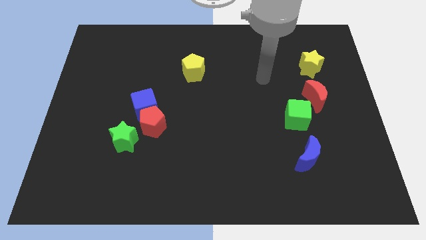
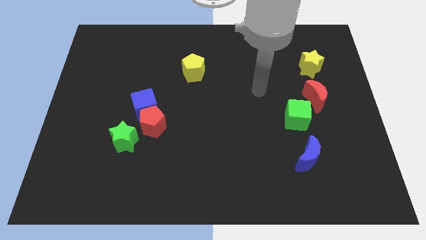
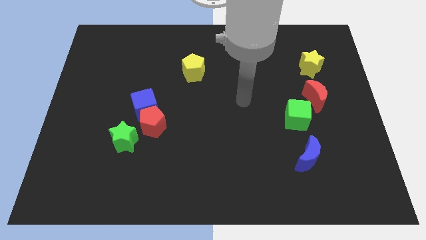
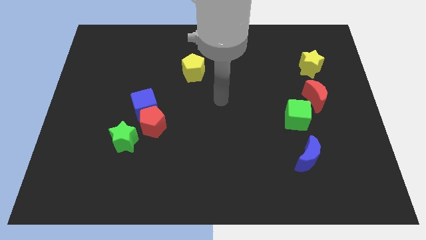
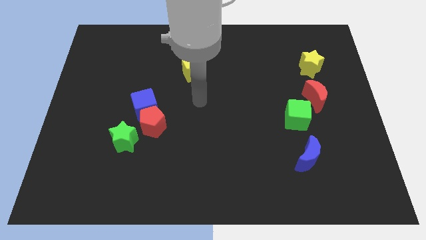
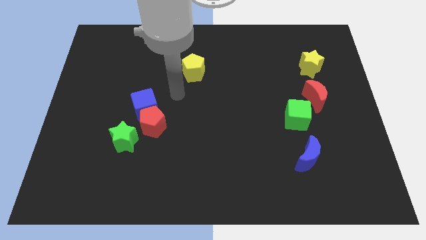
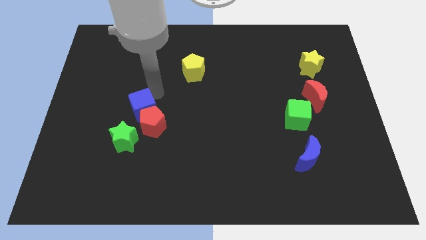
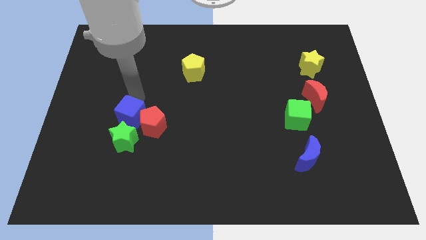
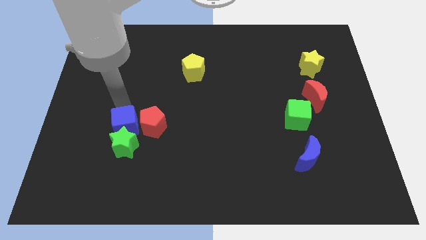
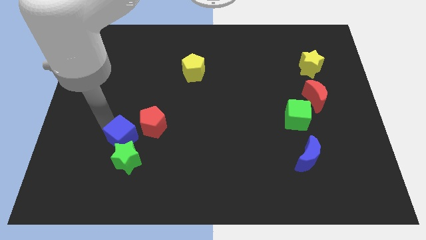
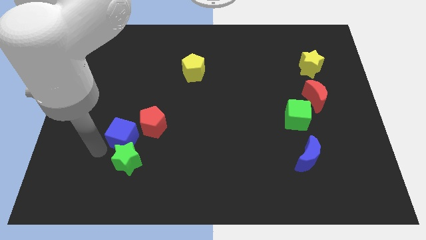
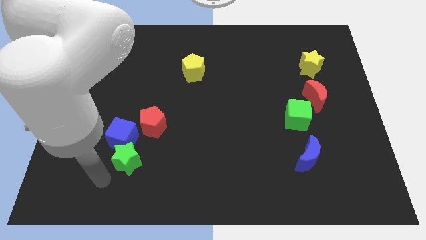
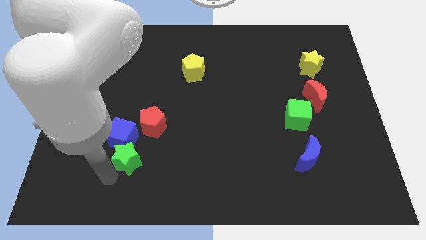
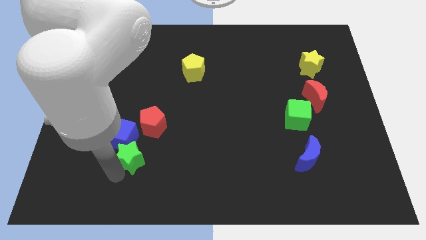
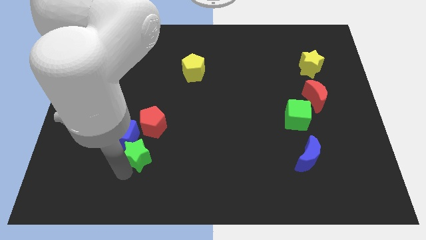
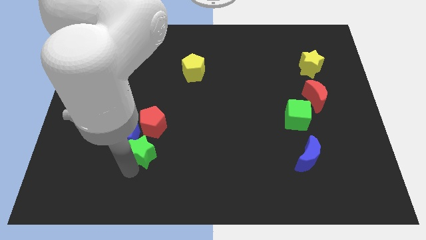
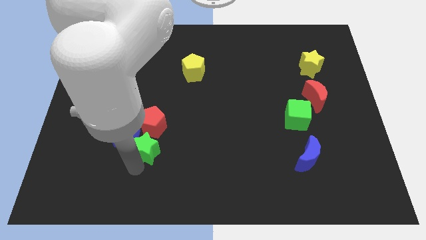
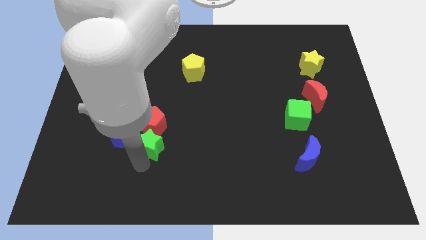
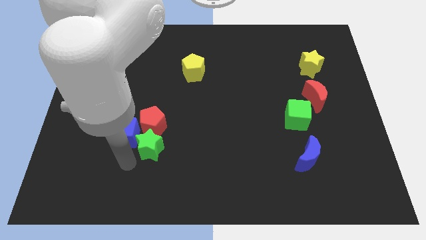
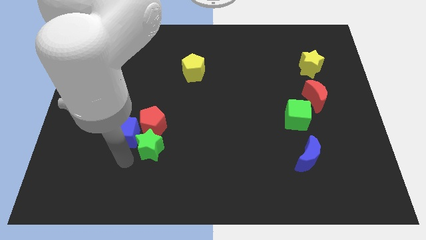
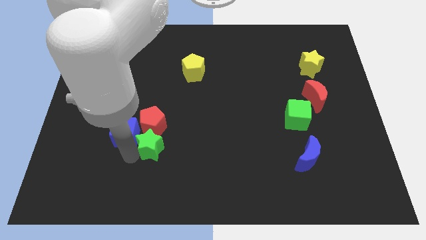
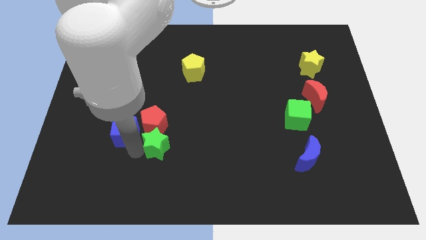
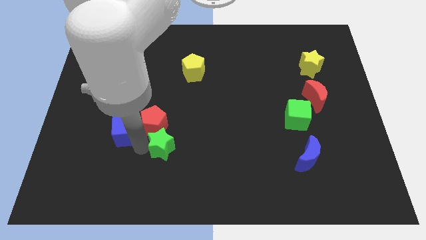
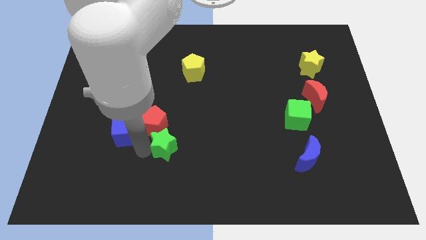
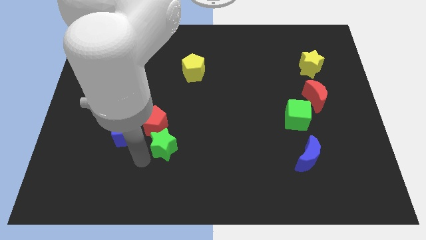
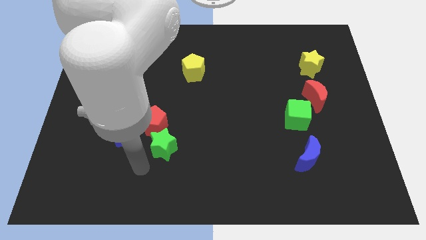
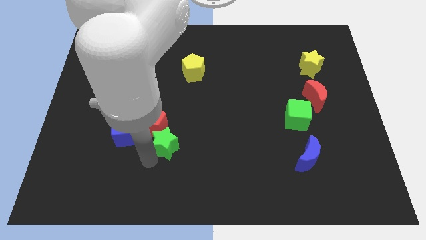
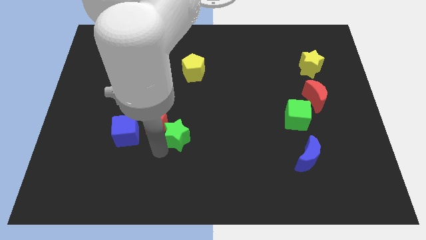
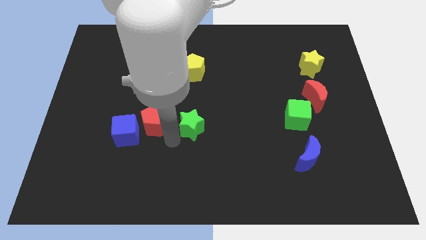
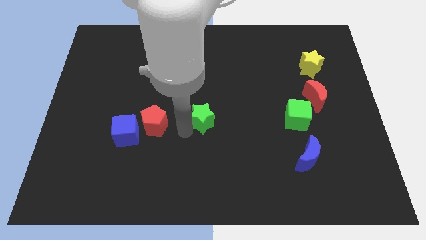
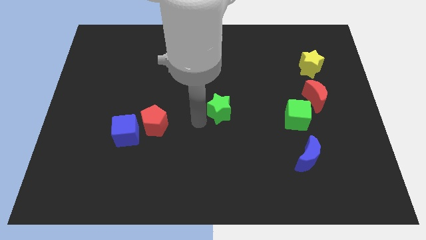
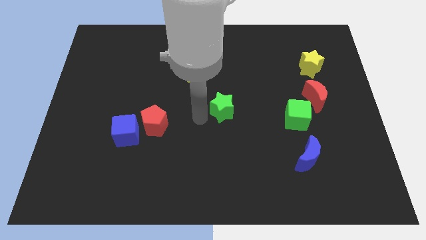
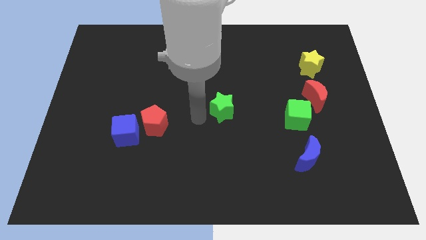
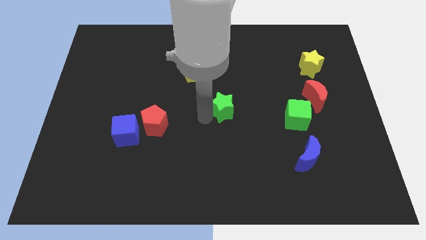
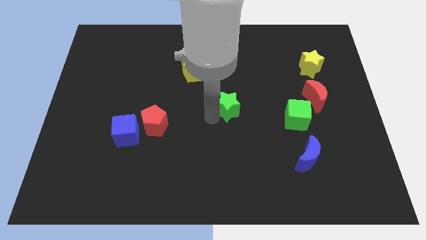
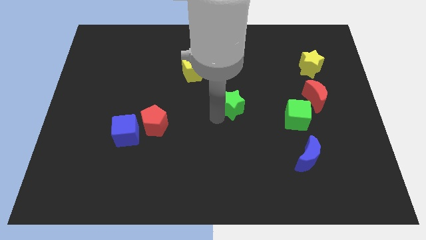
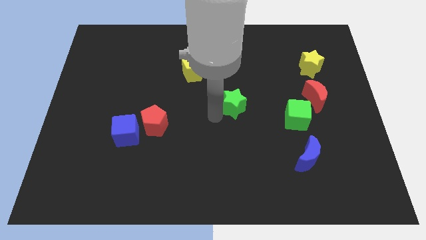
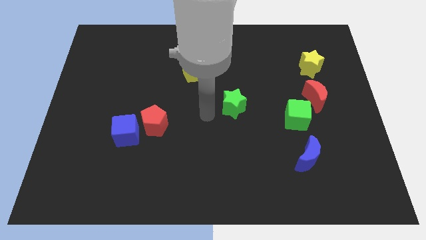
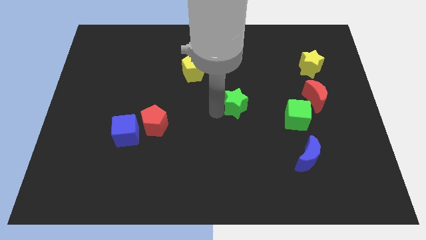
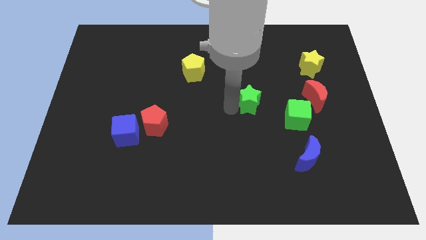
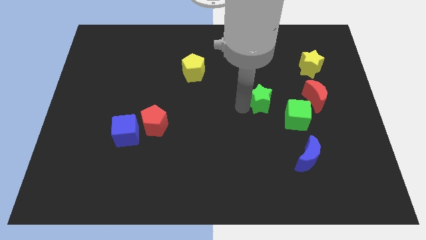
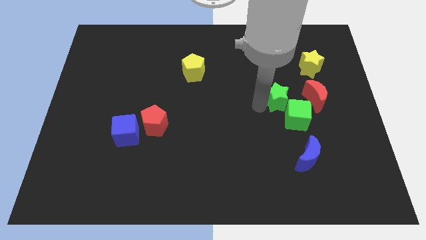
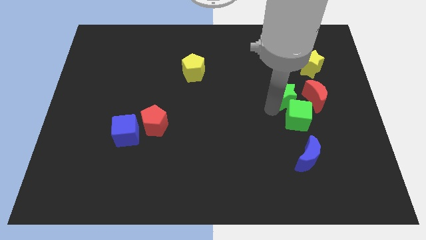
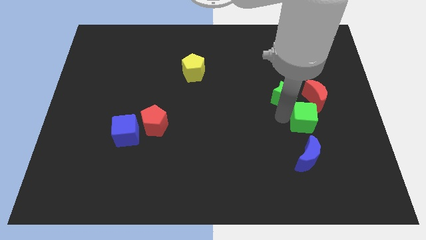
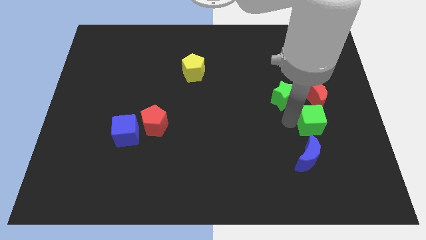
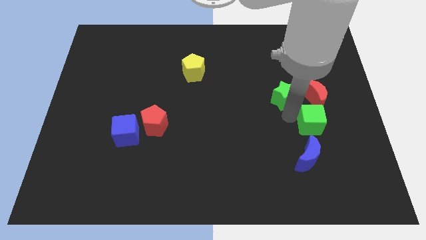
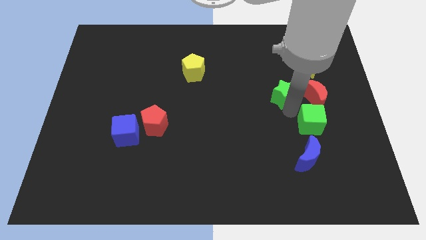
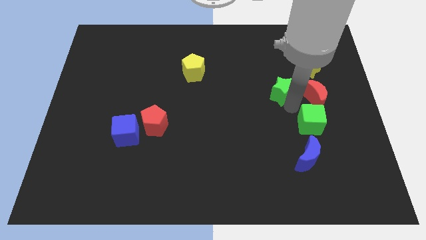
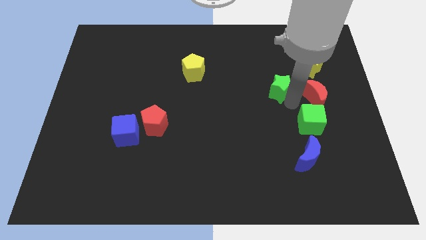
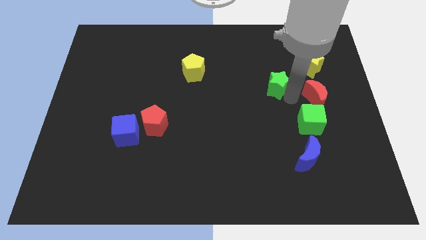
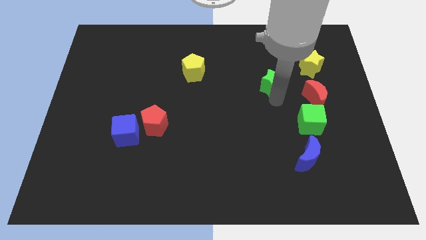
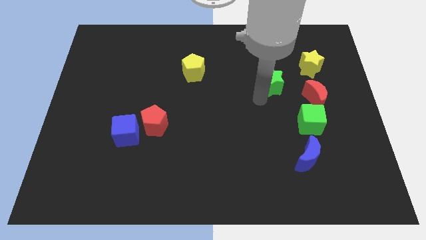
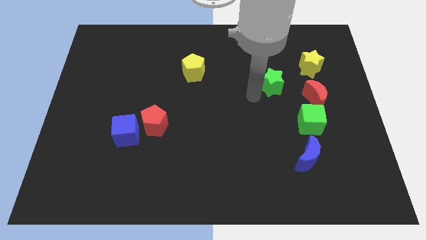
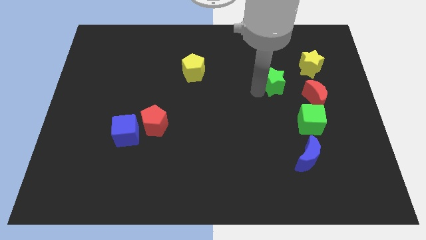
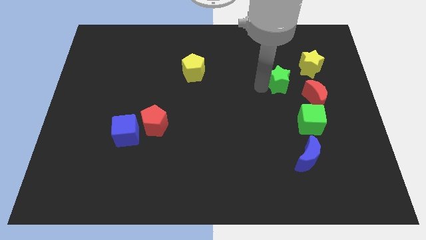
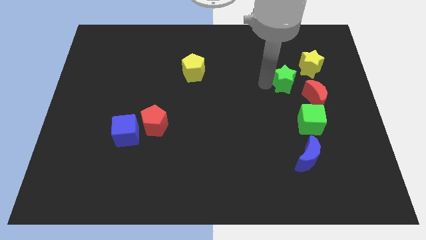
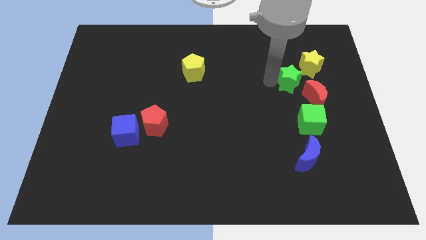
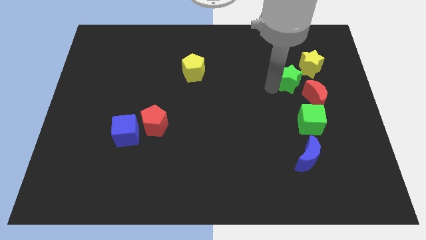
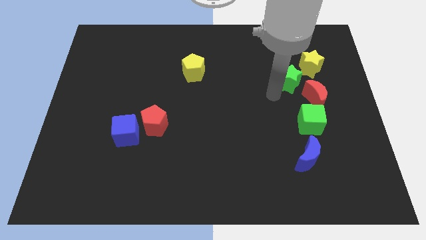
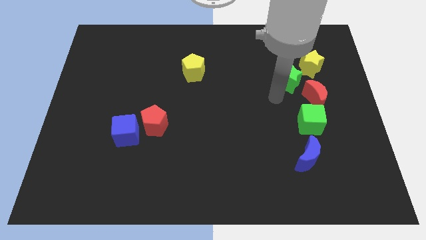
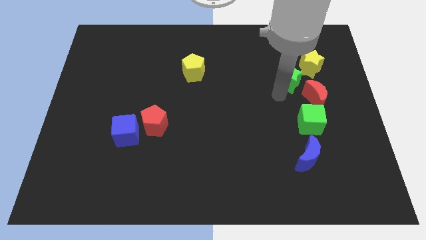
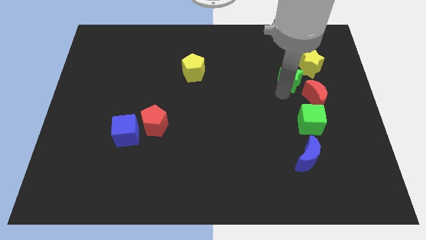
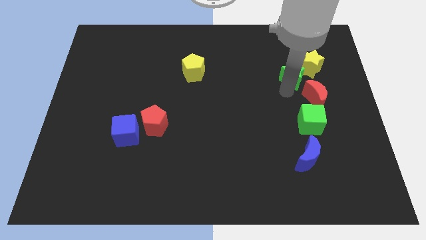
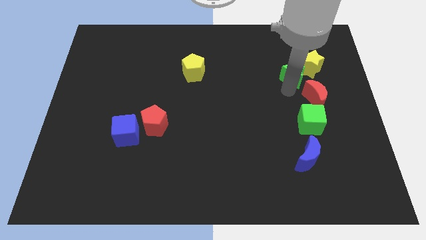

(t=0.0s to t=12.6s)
move the green star next to the yellow star

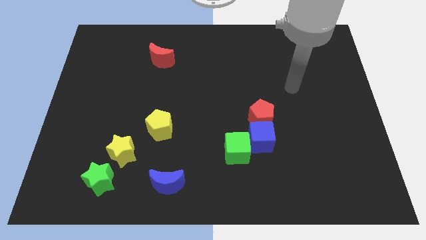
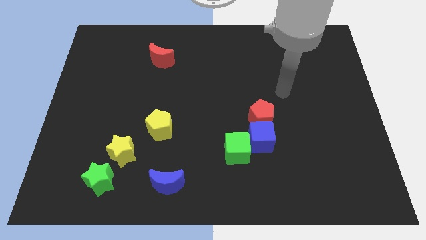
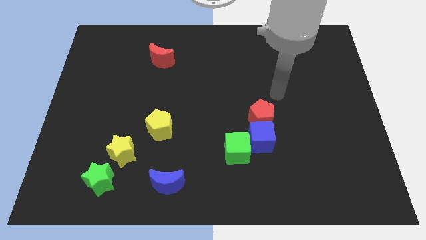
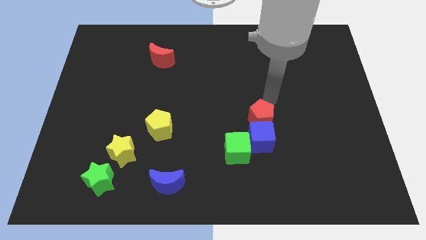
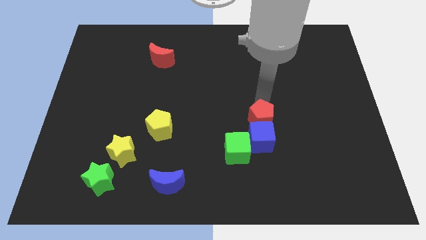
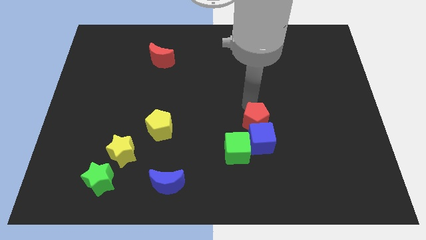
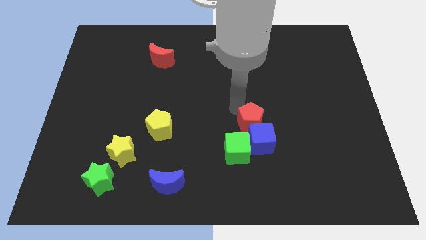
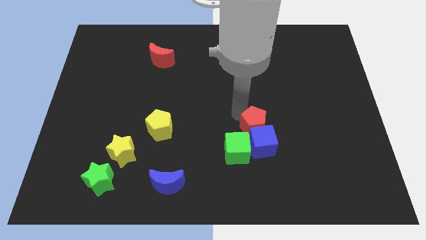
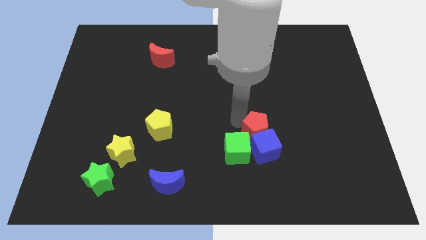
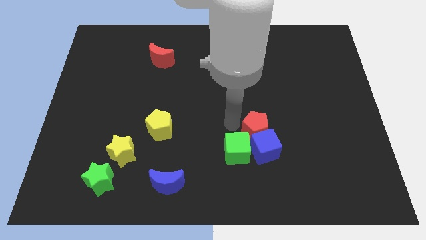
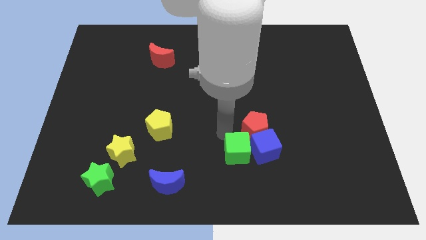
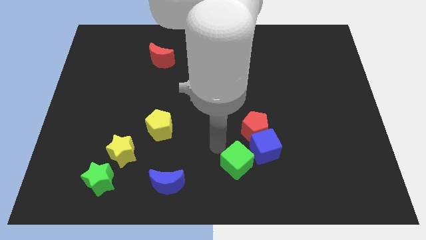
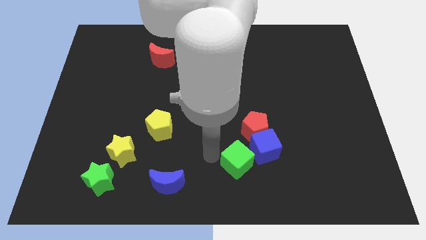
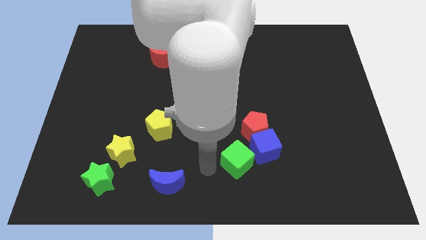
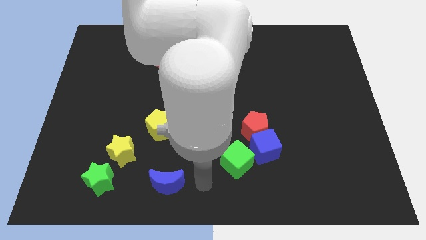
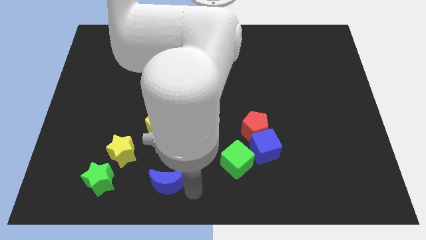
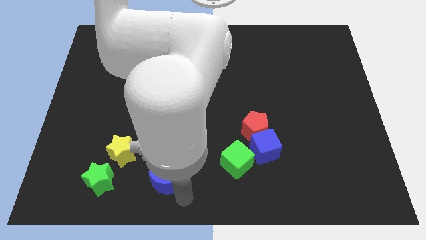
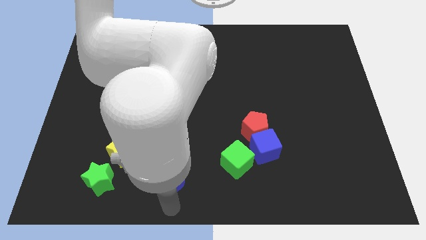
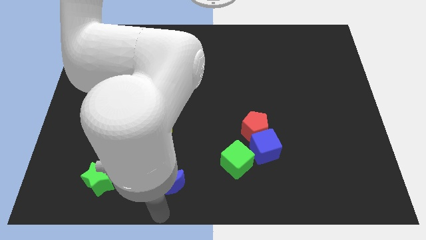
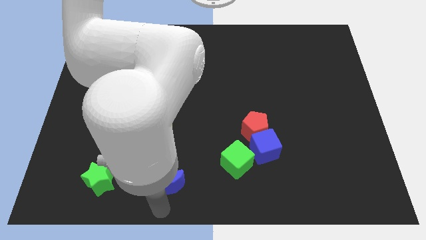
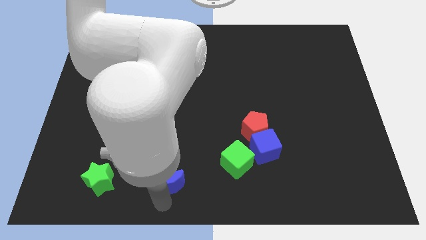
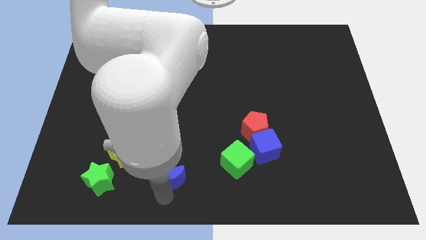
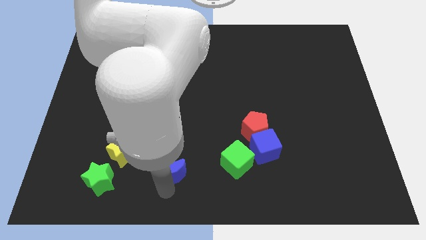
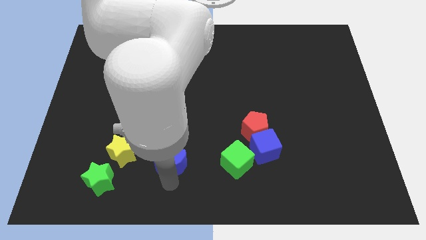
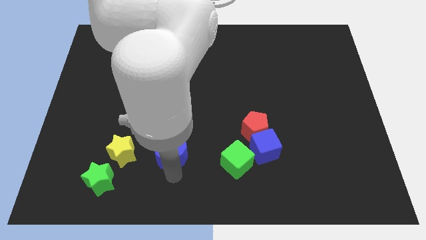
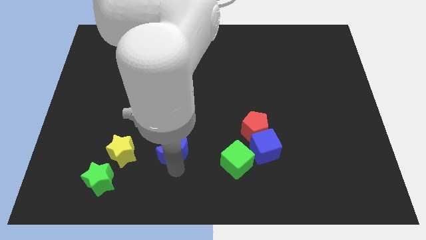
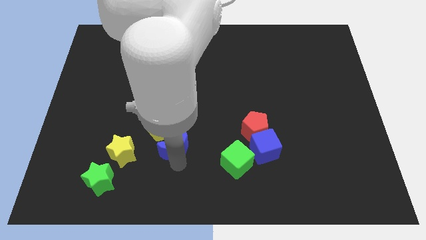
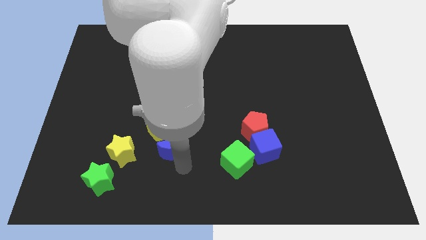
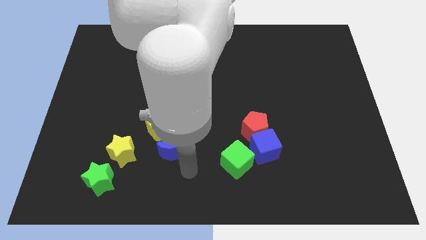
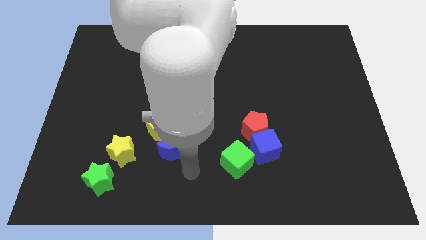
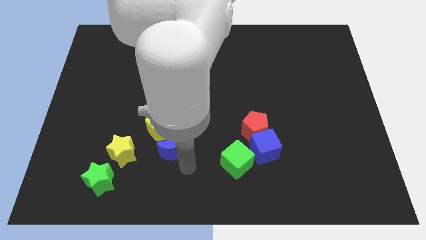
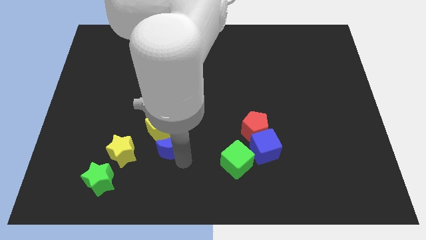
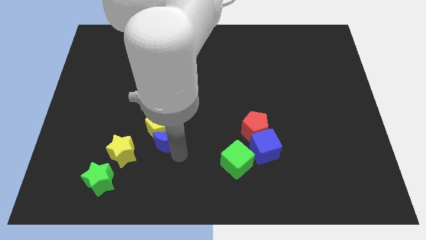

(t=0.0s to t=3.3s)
put the blue moon towards the yellow pentagon
